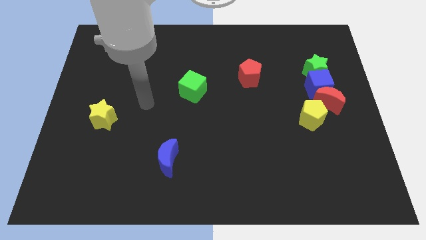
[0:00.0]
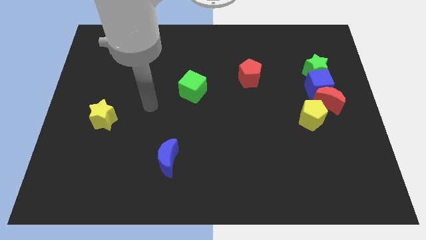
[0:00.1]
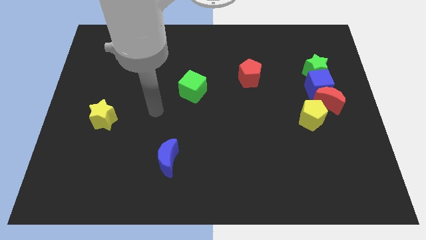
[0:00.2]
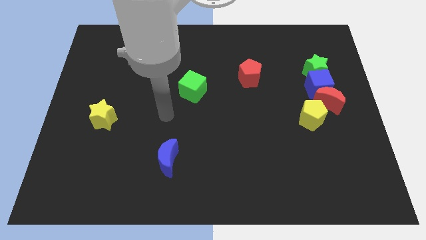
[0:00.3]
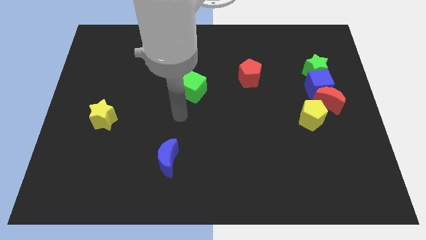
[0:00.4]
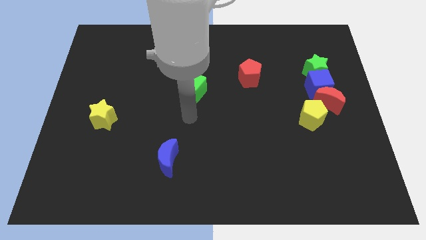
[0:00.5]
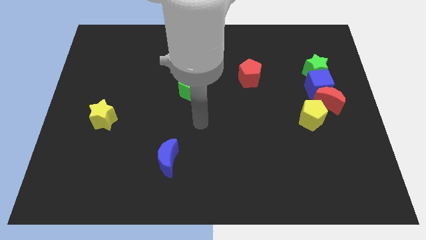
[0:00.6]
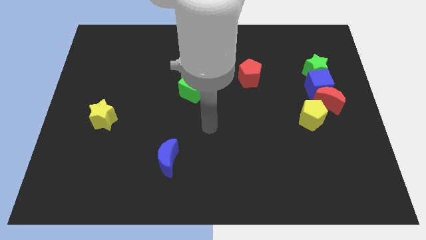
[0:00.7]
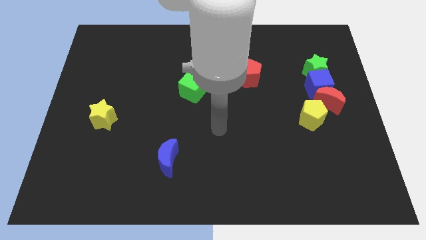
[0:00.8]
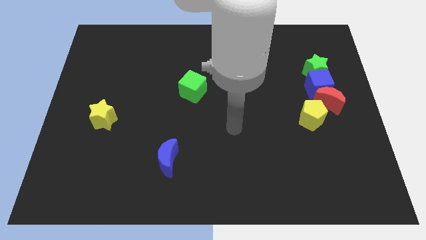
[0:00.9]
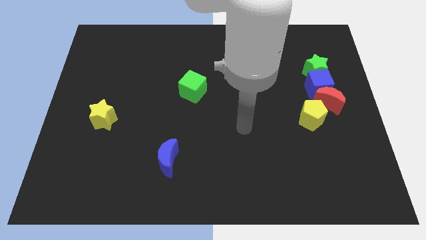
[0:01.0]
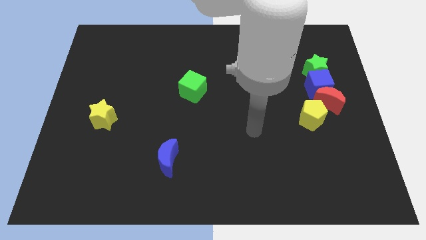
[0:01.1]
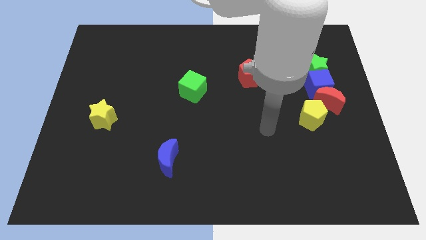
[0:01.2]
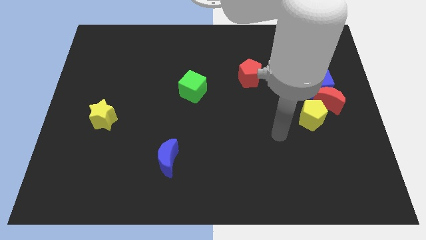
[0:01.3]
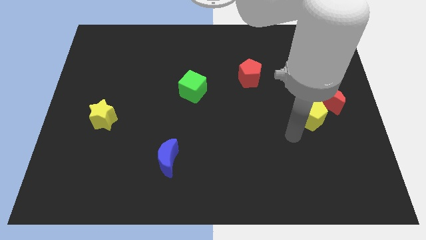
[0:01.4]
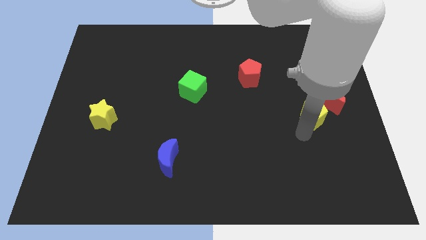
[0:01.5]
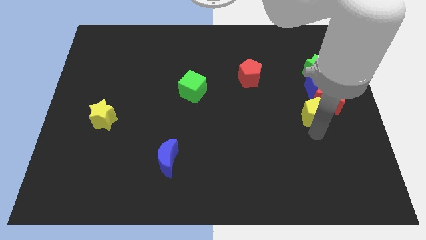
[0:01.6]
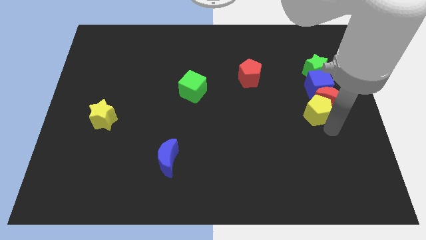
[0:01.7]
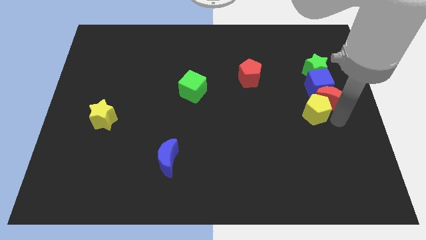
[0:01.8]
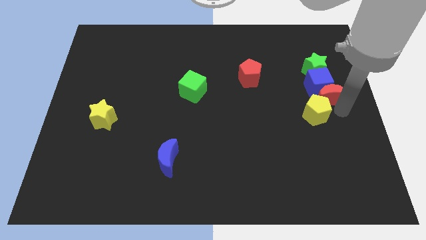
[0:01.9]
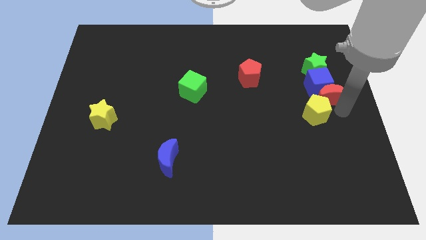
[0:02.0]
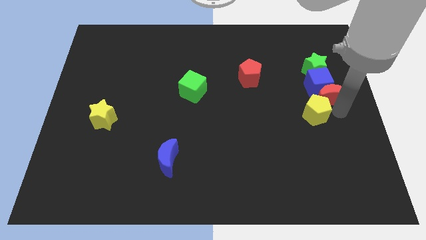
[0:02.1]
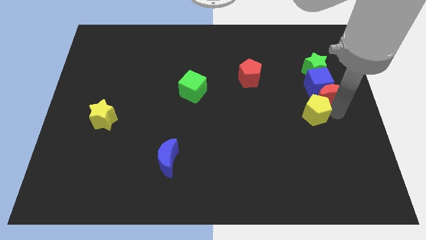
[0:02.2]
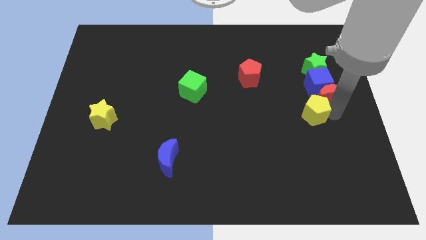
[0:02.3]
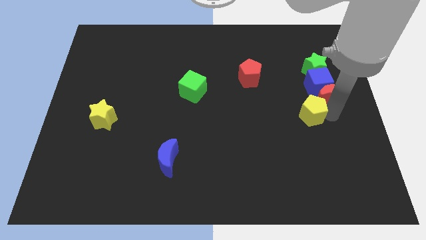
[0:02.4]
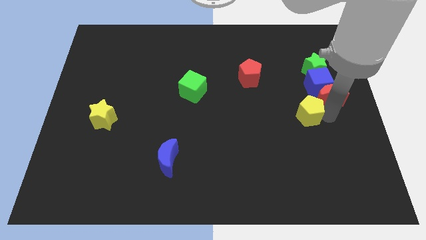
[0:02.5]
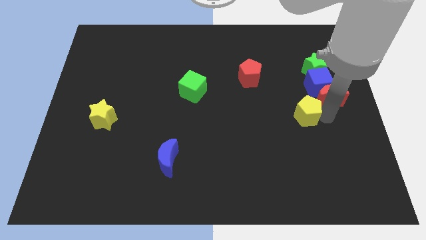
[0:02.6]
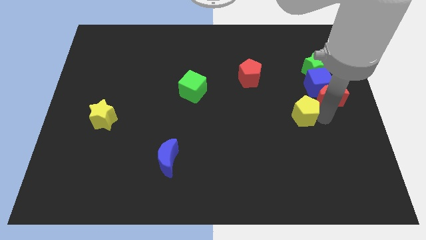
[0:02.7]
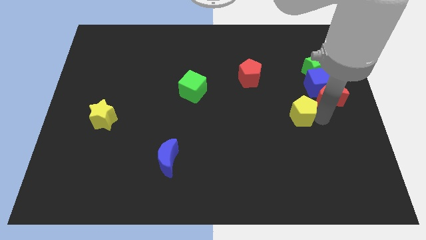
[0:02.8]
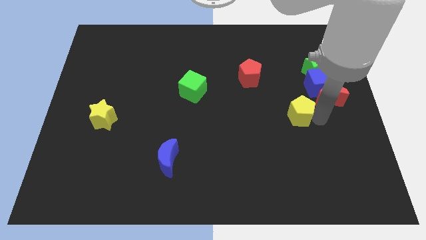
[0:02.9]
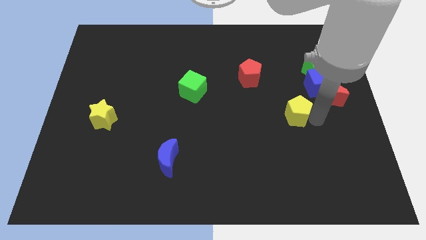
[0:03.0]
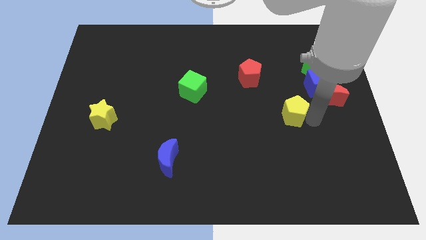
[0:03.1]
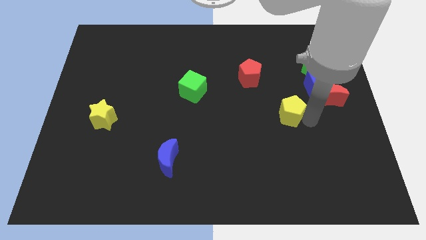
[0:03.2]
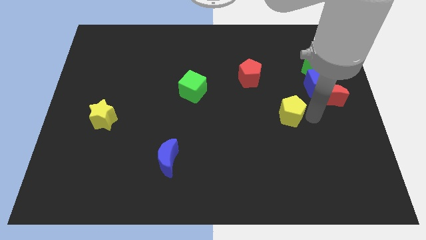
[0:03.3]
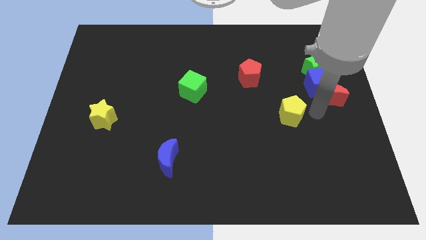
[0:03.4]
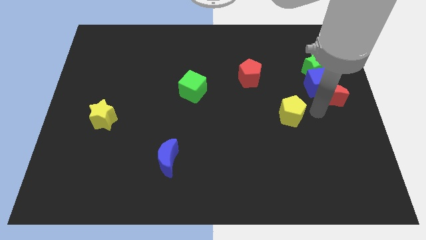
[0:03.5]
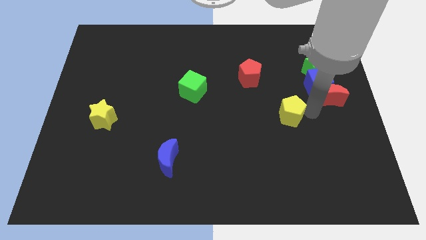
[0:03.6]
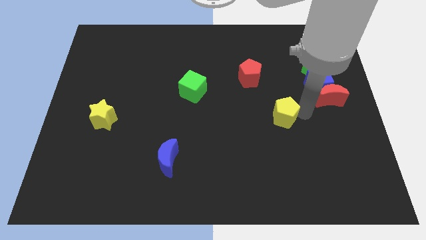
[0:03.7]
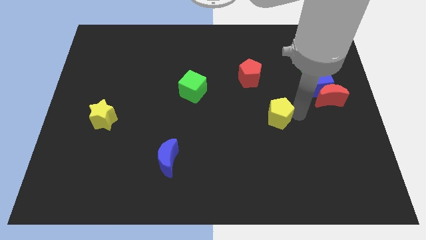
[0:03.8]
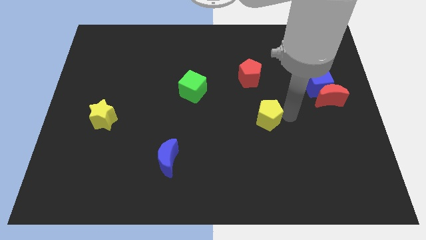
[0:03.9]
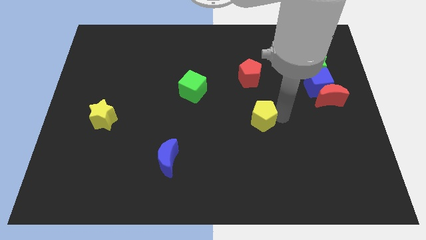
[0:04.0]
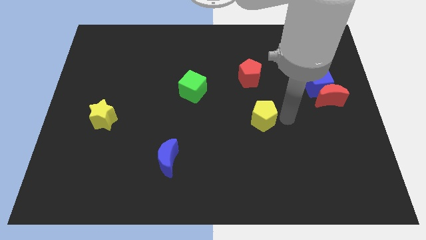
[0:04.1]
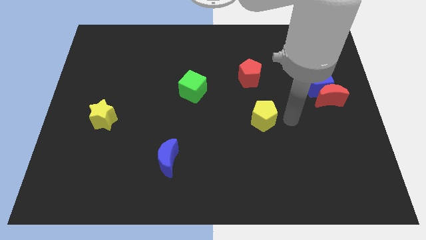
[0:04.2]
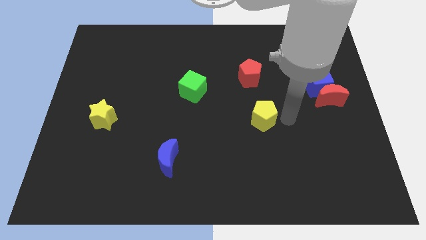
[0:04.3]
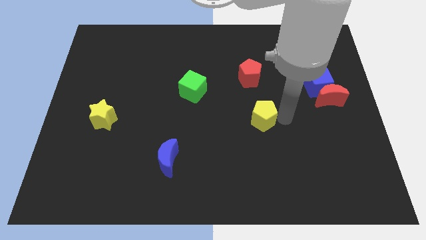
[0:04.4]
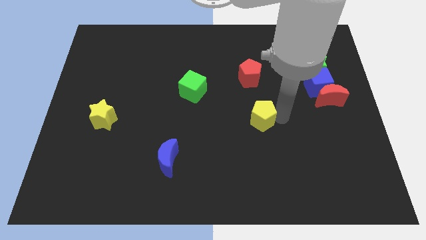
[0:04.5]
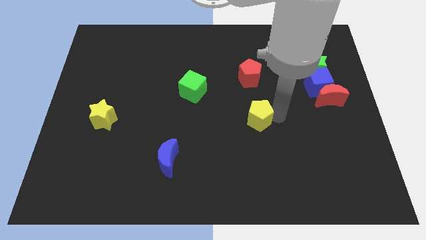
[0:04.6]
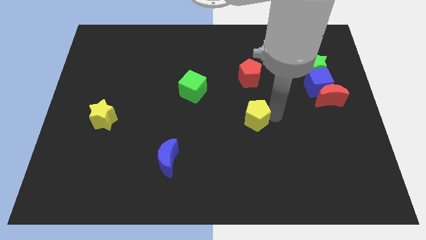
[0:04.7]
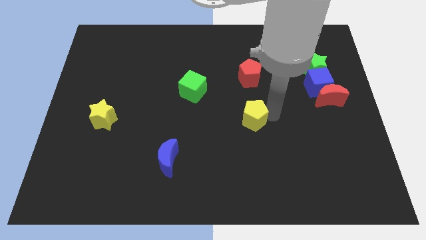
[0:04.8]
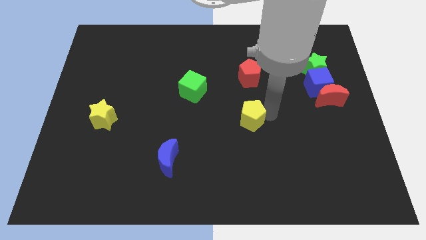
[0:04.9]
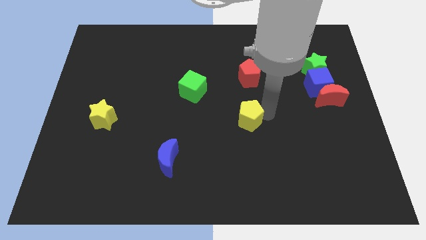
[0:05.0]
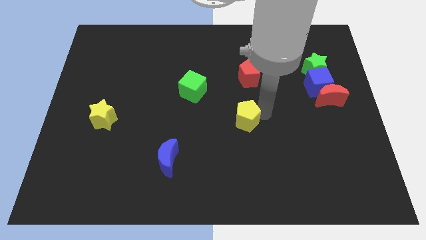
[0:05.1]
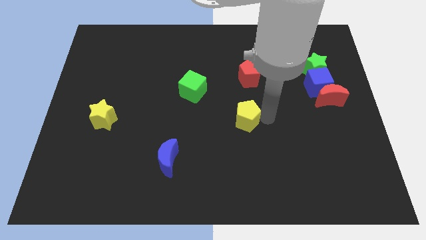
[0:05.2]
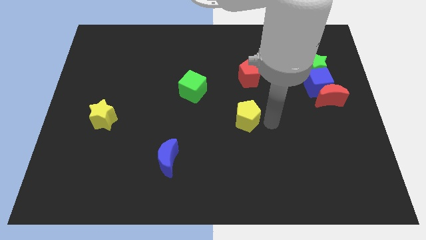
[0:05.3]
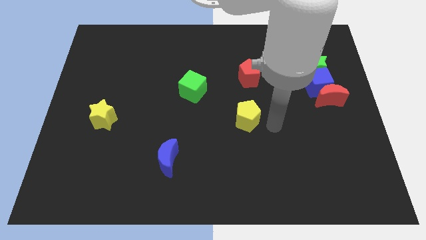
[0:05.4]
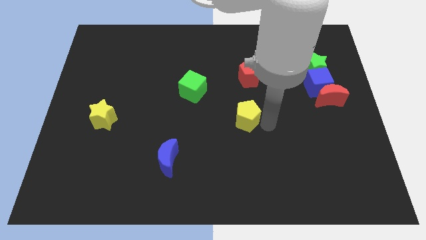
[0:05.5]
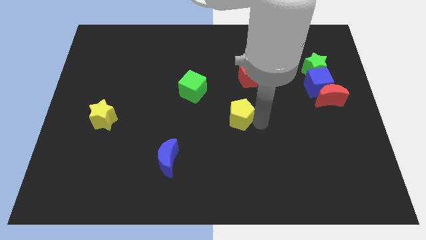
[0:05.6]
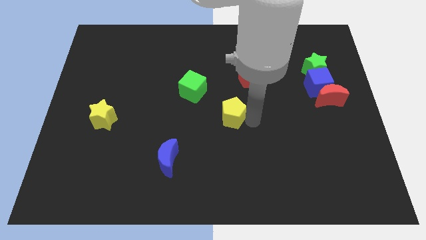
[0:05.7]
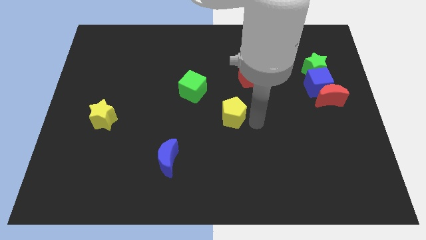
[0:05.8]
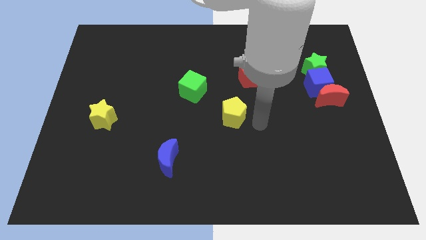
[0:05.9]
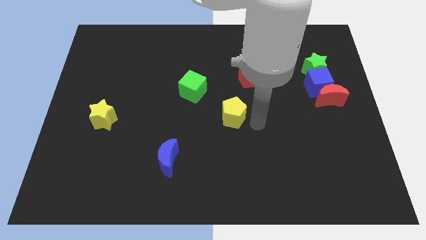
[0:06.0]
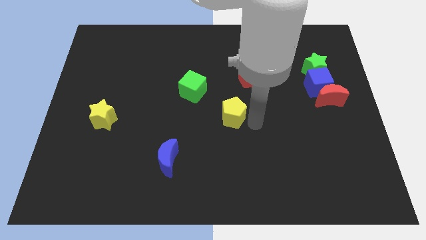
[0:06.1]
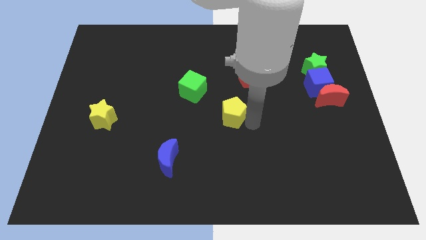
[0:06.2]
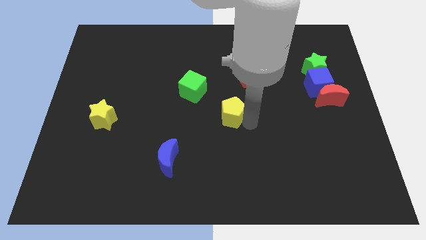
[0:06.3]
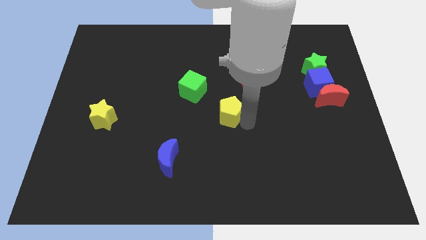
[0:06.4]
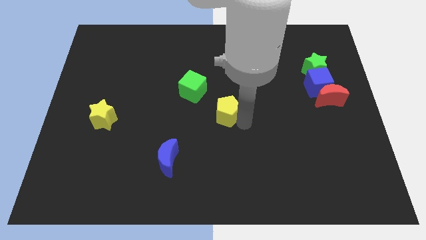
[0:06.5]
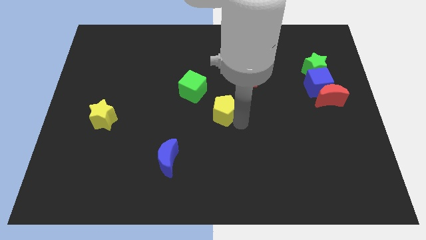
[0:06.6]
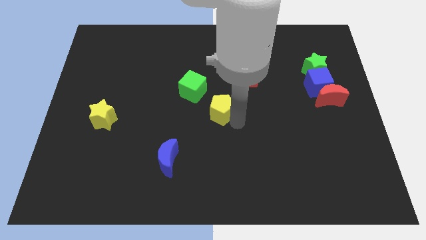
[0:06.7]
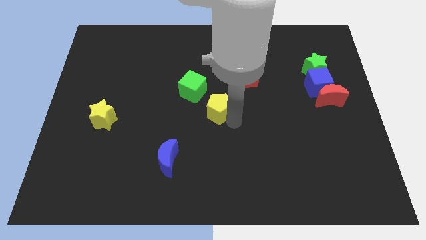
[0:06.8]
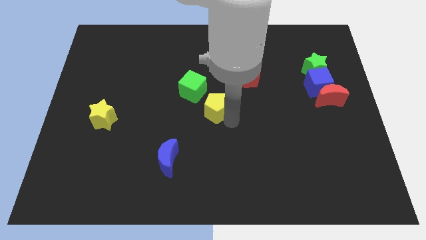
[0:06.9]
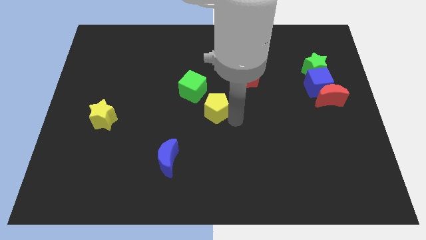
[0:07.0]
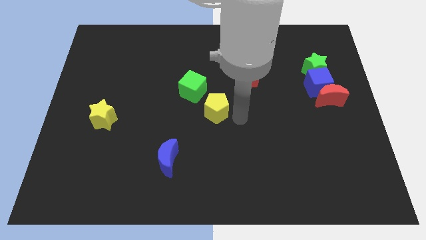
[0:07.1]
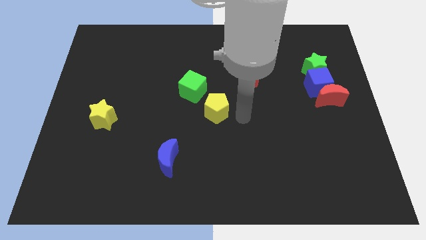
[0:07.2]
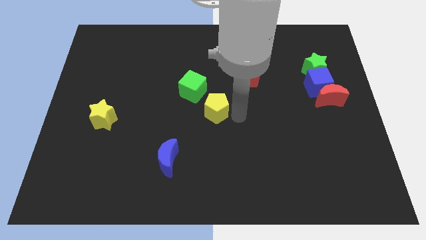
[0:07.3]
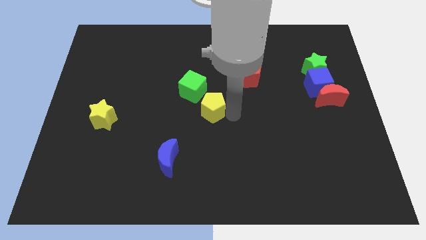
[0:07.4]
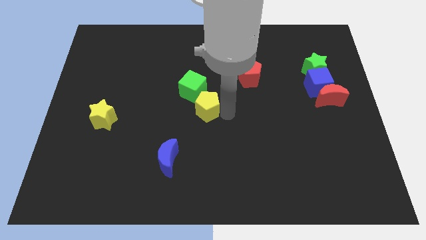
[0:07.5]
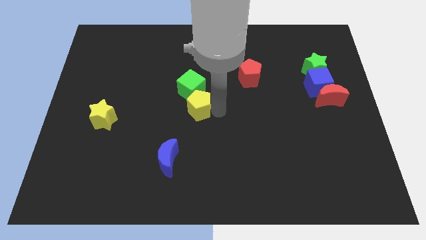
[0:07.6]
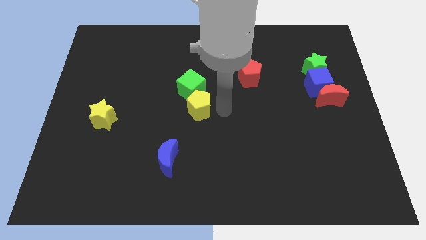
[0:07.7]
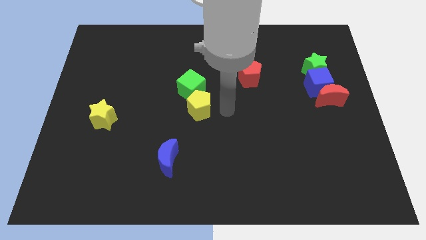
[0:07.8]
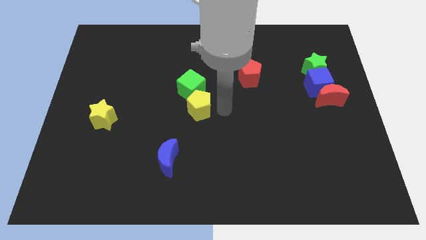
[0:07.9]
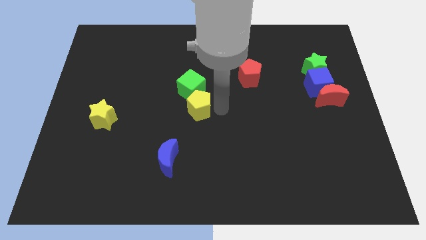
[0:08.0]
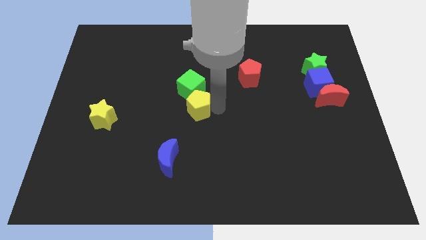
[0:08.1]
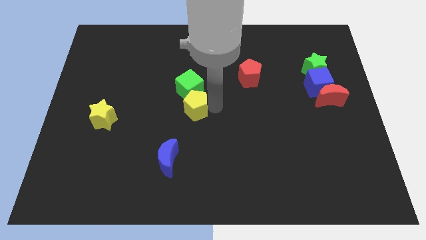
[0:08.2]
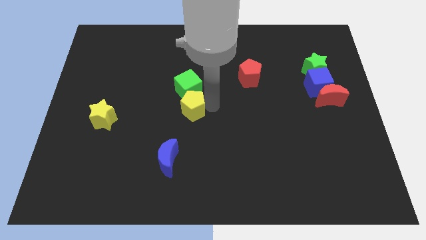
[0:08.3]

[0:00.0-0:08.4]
slide the yellow pentagon to the bottom left of the green cube
